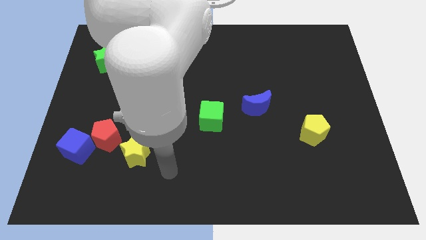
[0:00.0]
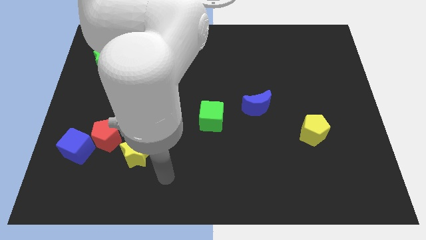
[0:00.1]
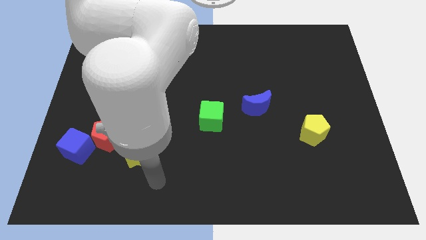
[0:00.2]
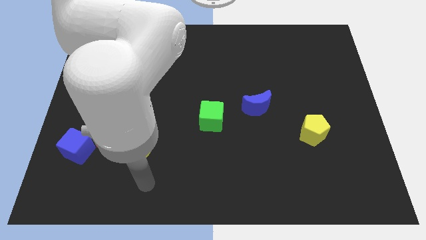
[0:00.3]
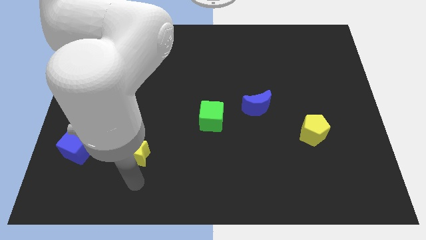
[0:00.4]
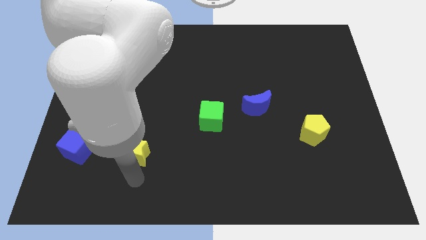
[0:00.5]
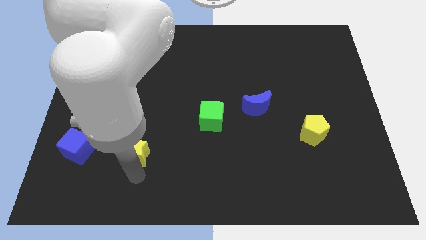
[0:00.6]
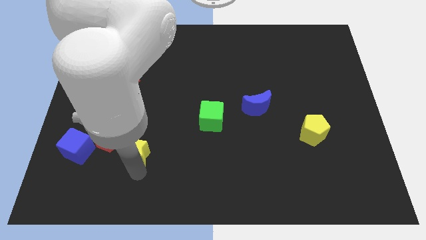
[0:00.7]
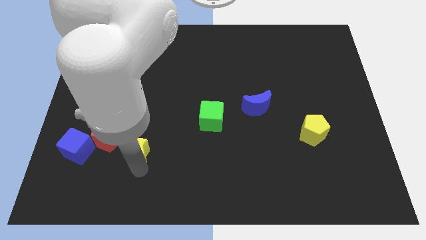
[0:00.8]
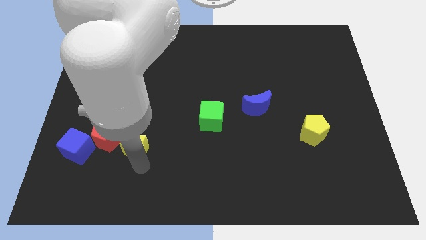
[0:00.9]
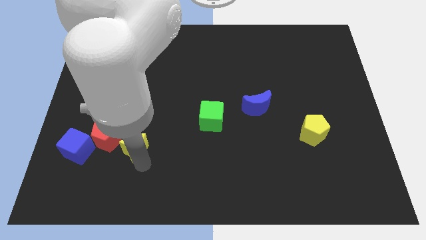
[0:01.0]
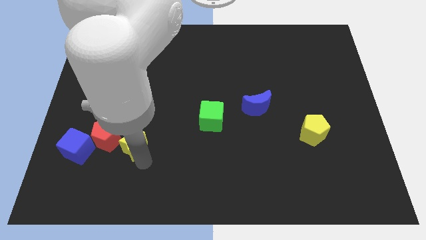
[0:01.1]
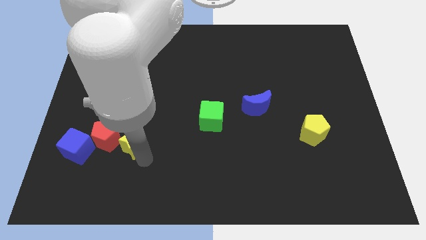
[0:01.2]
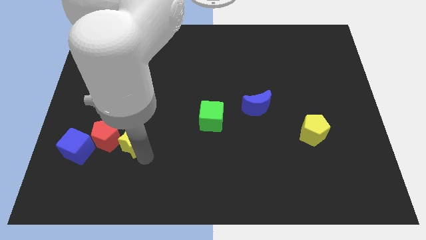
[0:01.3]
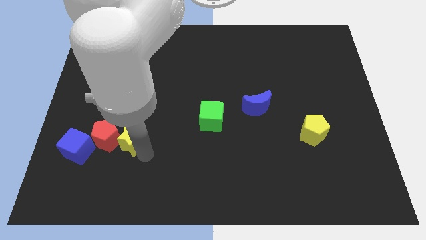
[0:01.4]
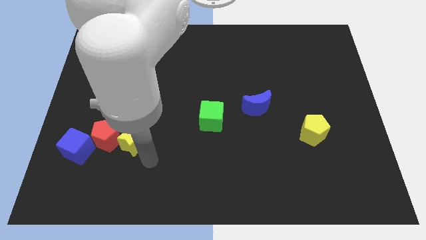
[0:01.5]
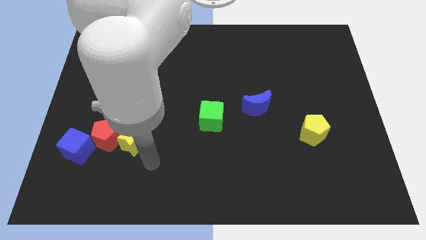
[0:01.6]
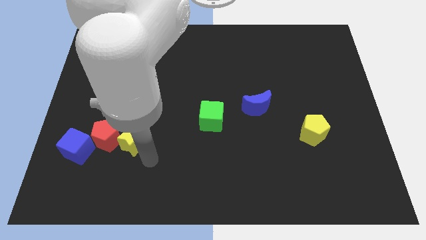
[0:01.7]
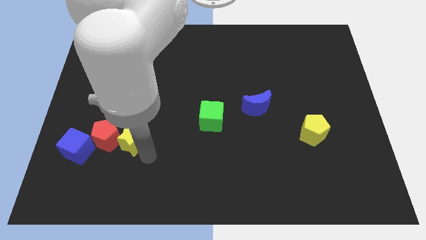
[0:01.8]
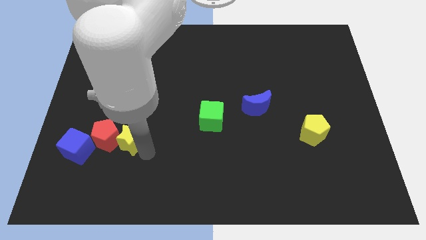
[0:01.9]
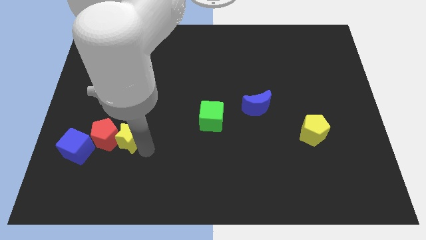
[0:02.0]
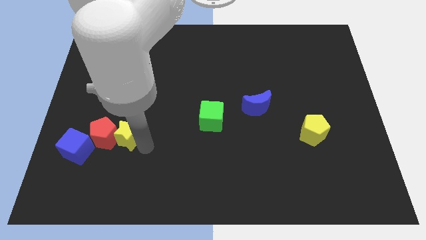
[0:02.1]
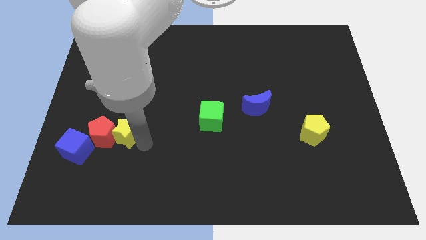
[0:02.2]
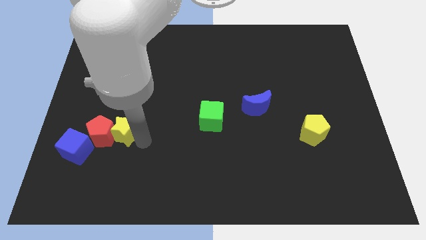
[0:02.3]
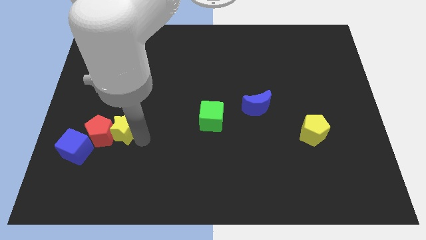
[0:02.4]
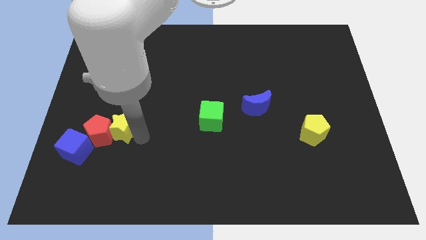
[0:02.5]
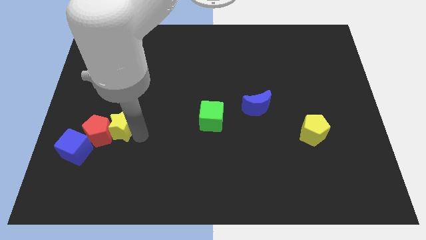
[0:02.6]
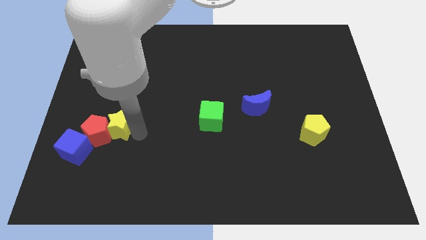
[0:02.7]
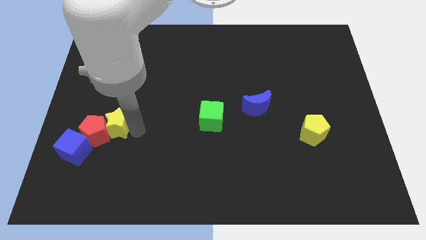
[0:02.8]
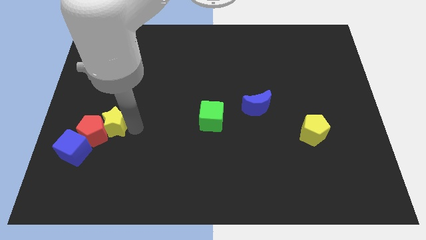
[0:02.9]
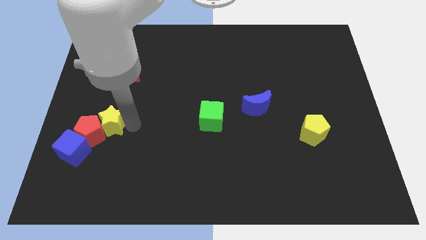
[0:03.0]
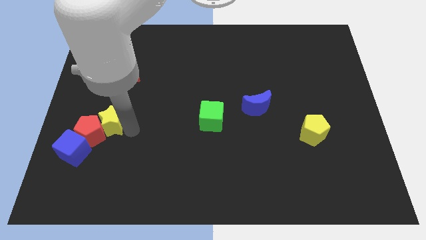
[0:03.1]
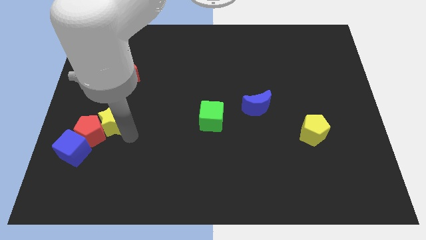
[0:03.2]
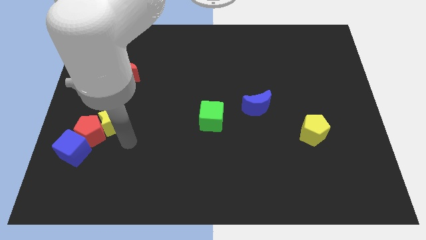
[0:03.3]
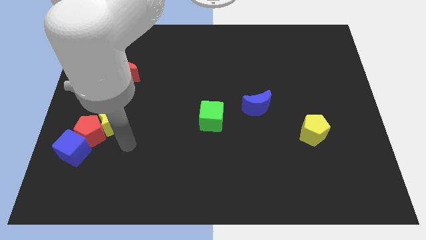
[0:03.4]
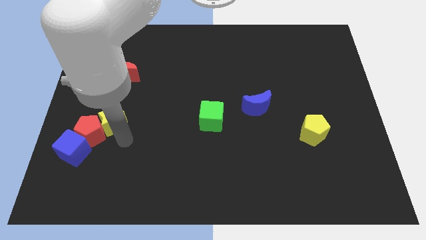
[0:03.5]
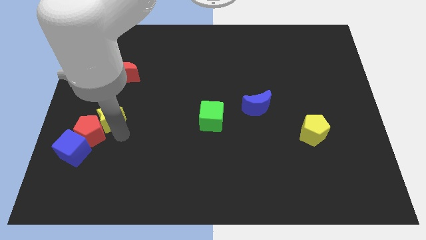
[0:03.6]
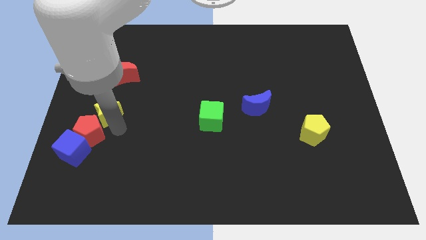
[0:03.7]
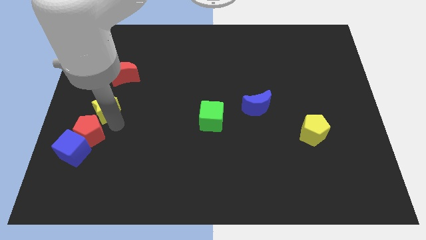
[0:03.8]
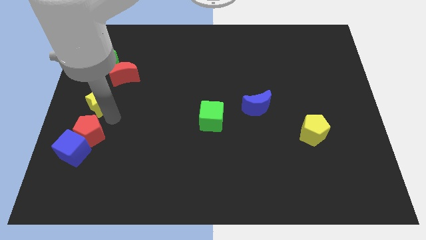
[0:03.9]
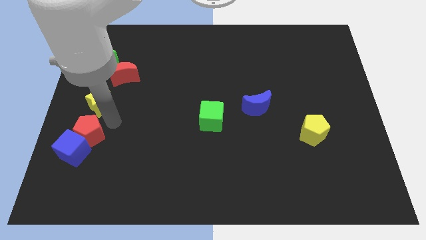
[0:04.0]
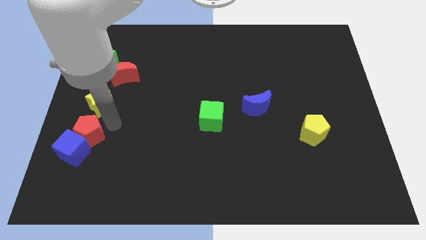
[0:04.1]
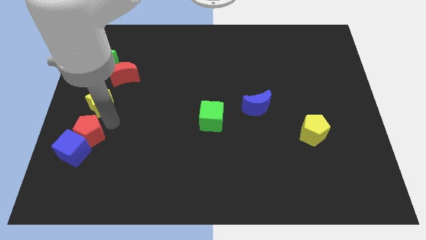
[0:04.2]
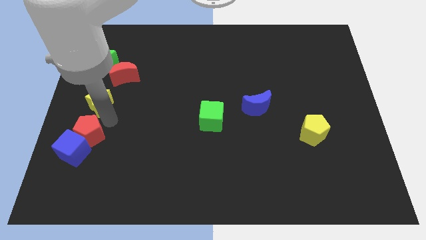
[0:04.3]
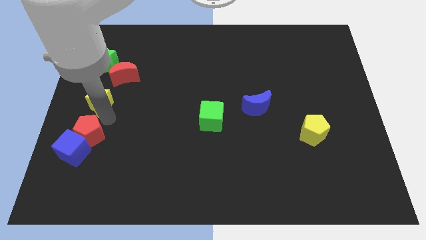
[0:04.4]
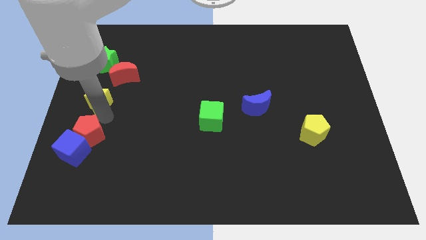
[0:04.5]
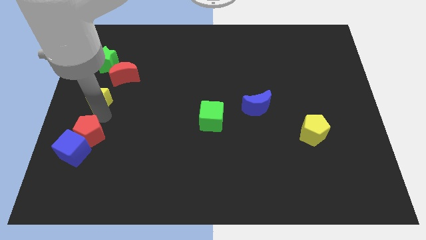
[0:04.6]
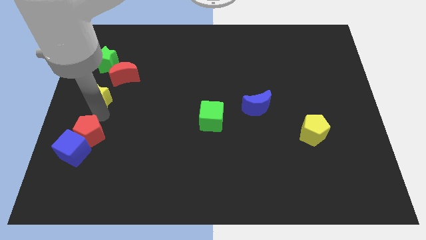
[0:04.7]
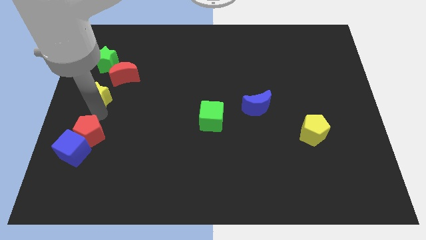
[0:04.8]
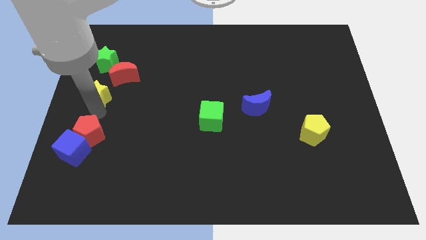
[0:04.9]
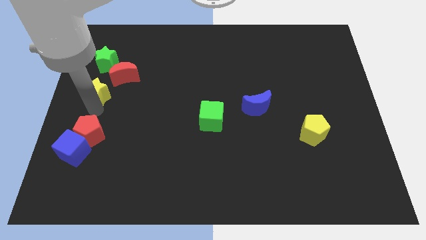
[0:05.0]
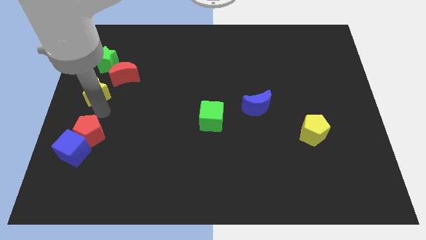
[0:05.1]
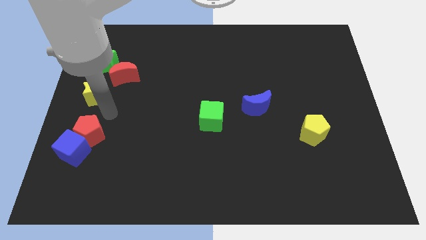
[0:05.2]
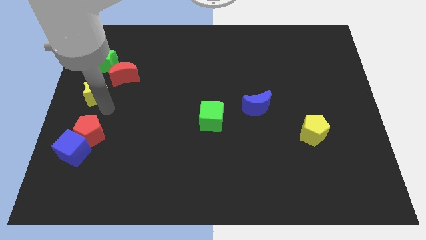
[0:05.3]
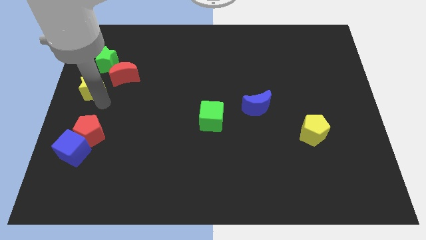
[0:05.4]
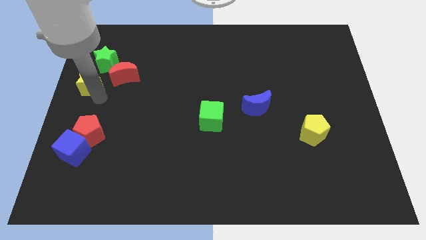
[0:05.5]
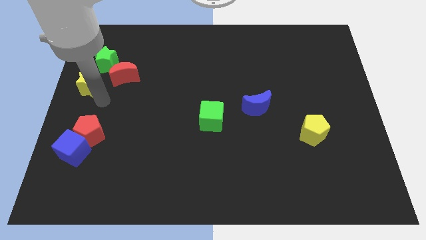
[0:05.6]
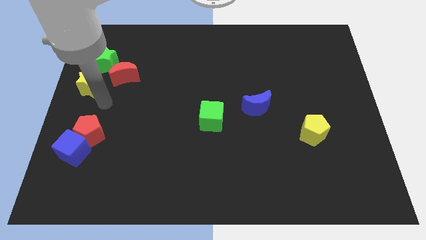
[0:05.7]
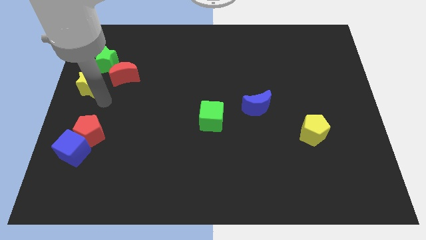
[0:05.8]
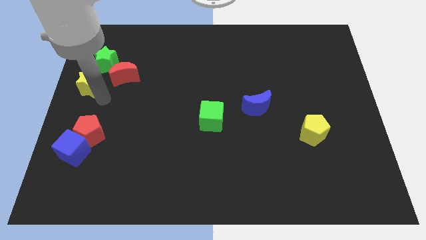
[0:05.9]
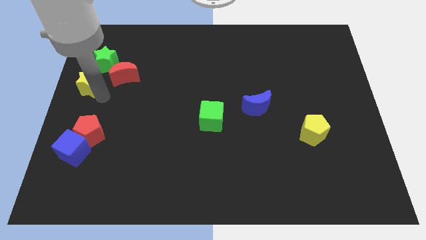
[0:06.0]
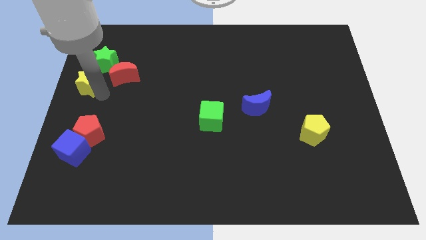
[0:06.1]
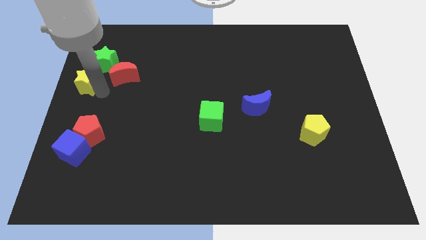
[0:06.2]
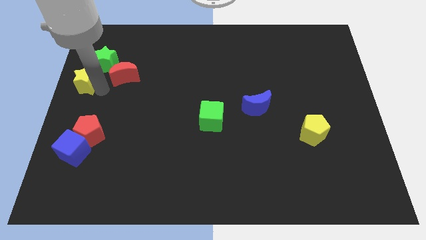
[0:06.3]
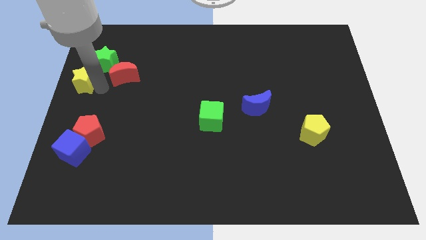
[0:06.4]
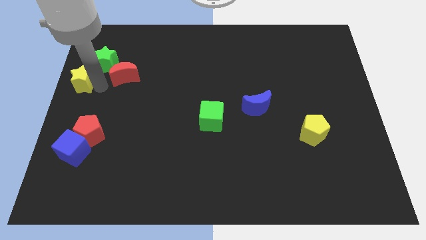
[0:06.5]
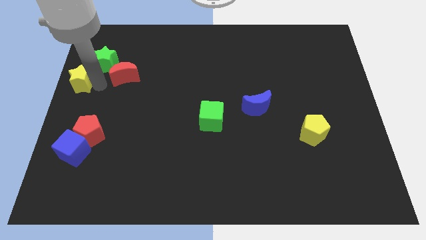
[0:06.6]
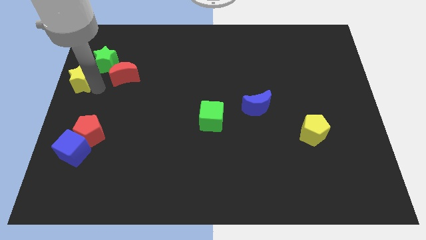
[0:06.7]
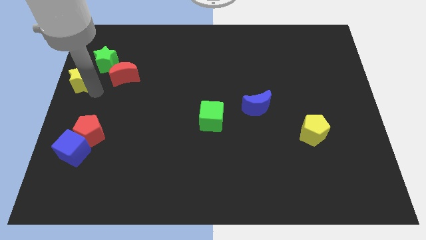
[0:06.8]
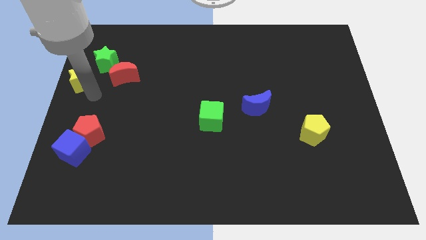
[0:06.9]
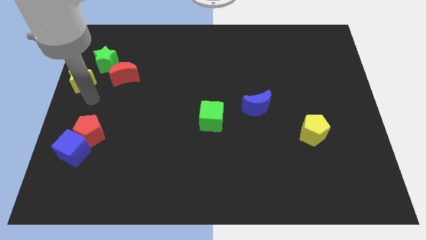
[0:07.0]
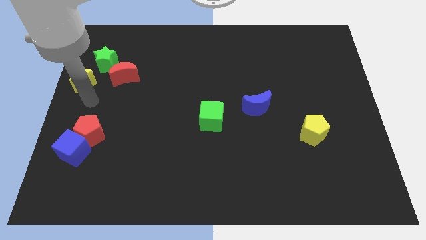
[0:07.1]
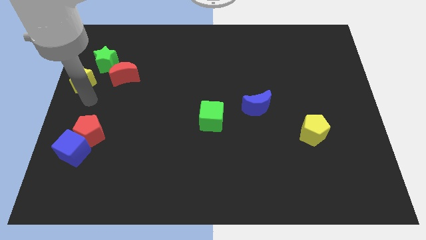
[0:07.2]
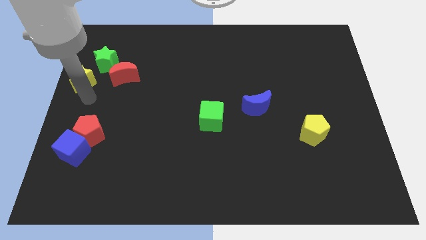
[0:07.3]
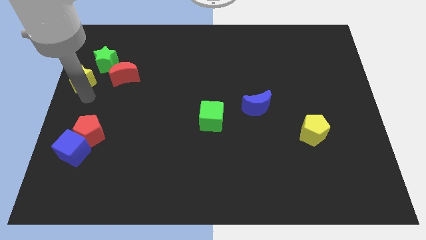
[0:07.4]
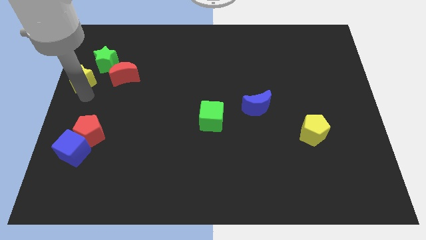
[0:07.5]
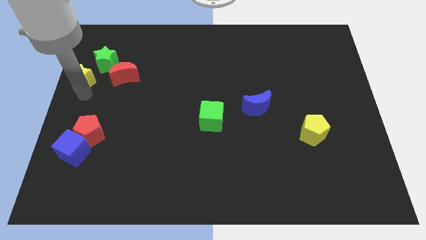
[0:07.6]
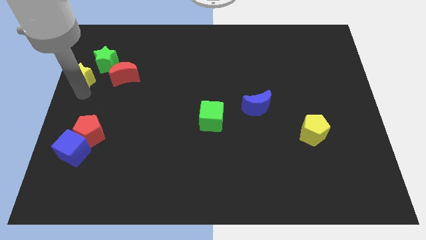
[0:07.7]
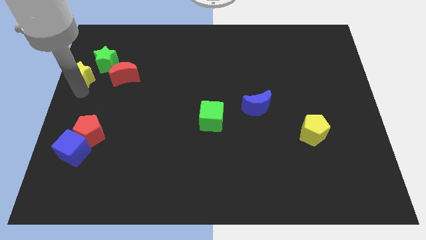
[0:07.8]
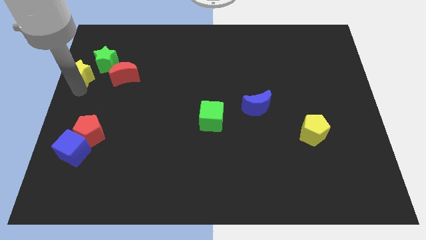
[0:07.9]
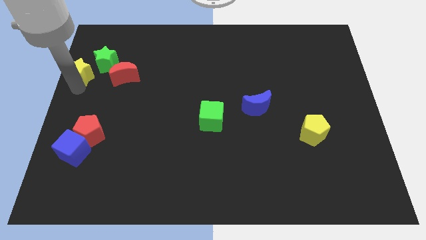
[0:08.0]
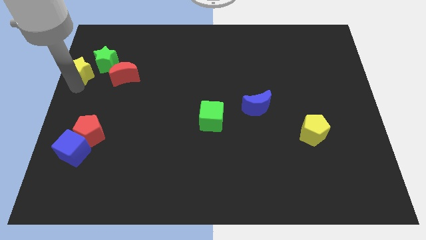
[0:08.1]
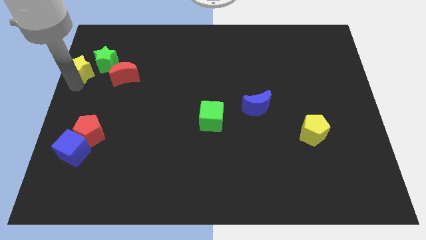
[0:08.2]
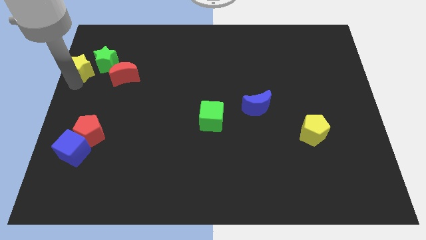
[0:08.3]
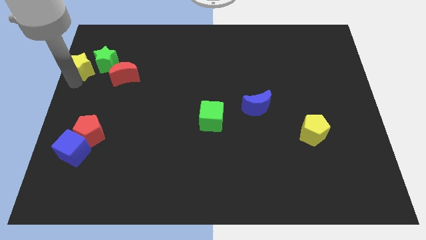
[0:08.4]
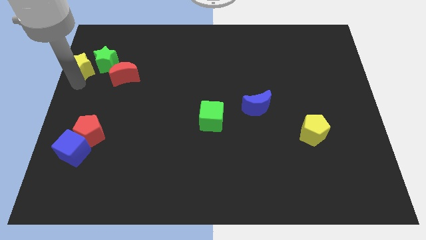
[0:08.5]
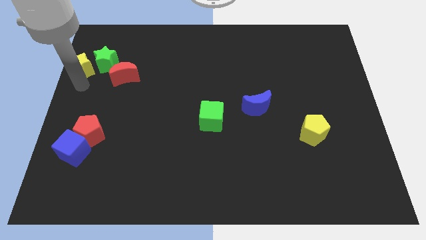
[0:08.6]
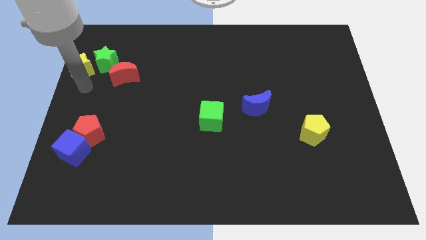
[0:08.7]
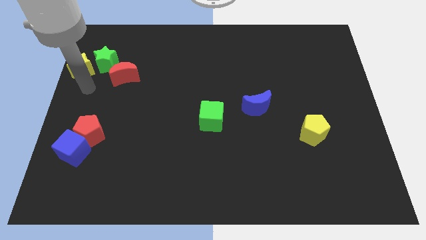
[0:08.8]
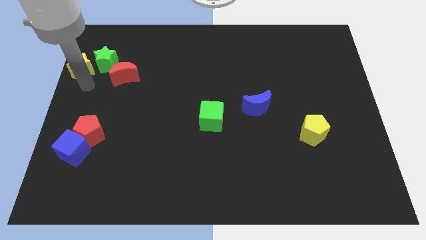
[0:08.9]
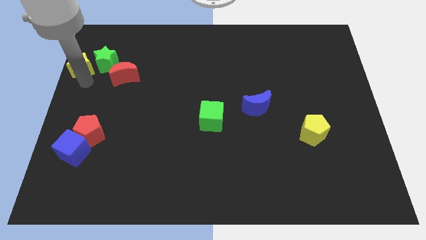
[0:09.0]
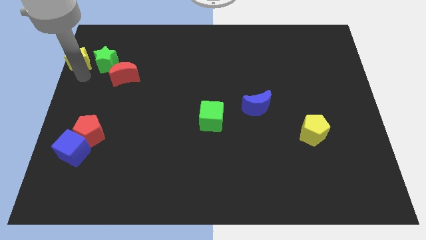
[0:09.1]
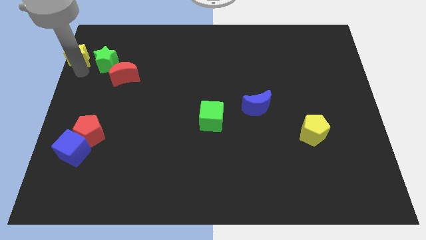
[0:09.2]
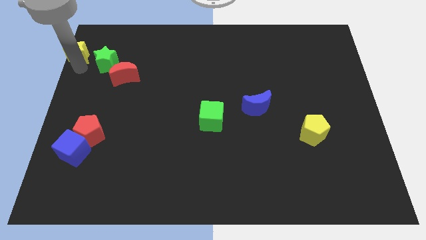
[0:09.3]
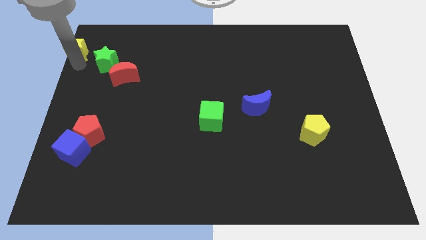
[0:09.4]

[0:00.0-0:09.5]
push the yellow star to the top left corner
